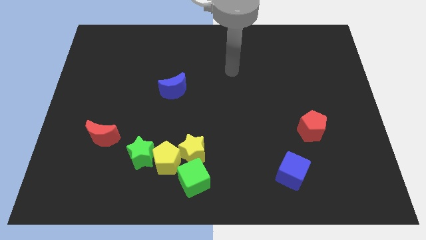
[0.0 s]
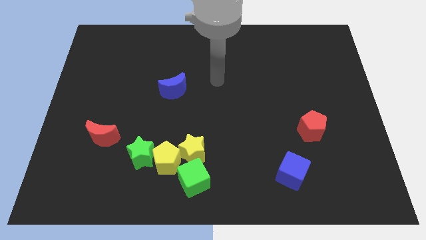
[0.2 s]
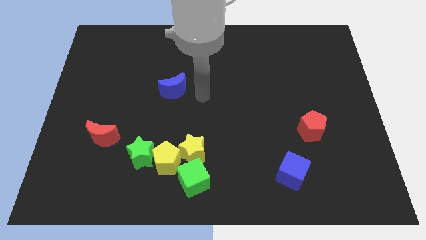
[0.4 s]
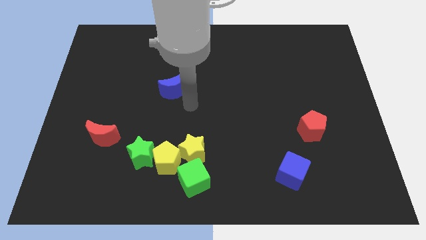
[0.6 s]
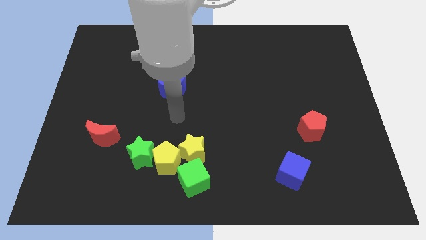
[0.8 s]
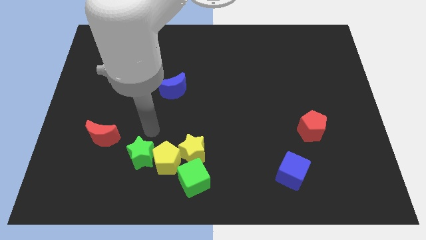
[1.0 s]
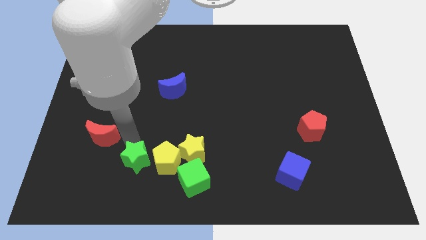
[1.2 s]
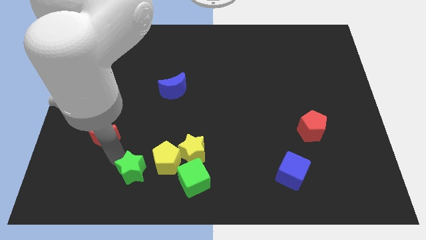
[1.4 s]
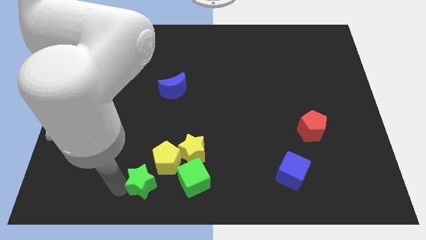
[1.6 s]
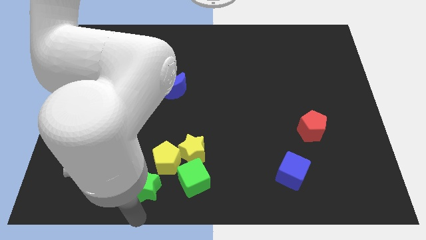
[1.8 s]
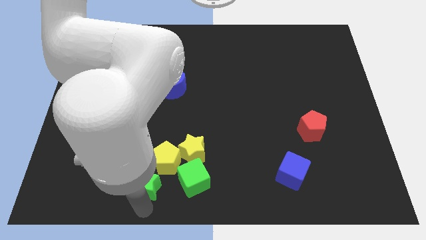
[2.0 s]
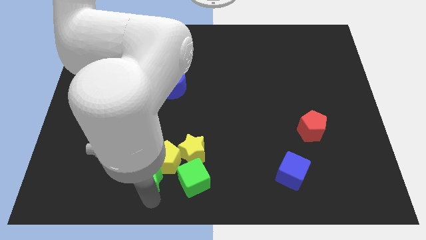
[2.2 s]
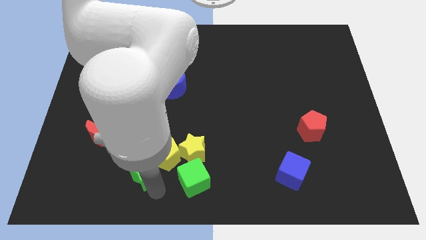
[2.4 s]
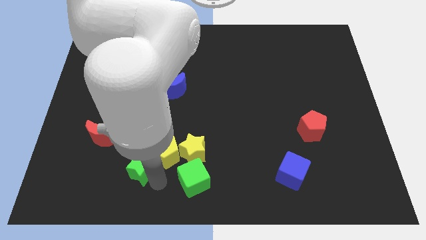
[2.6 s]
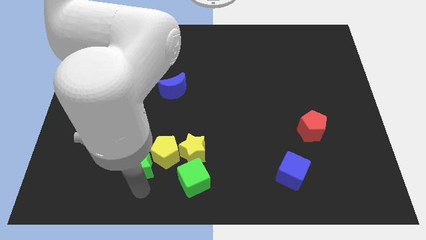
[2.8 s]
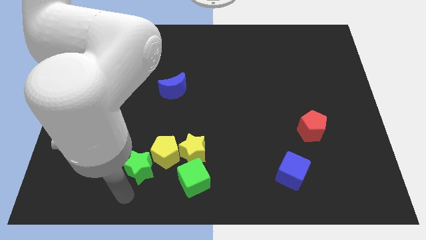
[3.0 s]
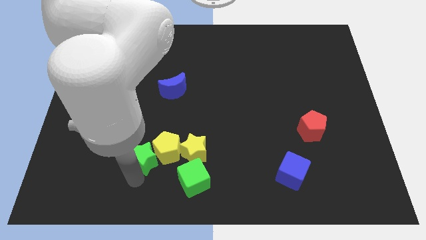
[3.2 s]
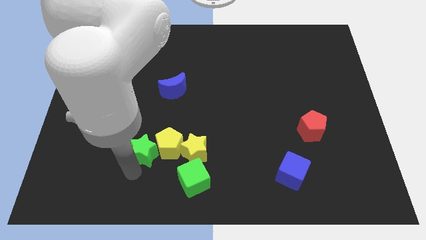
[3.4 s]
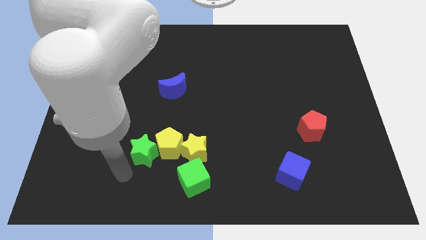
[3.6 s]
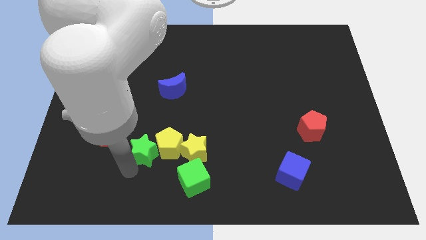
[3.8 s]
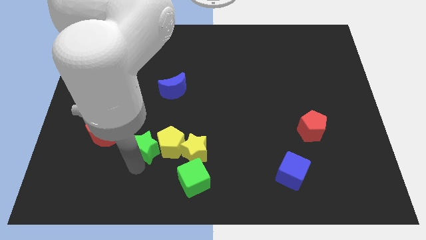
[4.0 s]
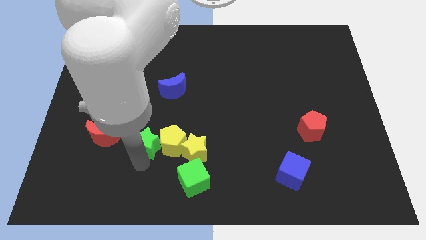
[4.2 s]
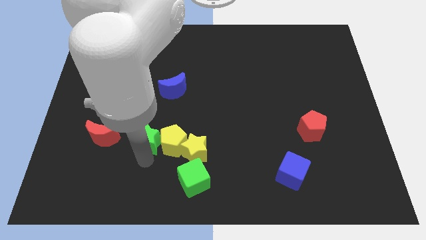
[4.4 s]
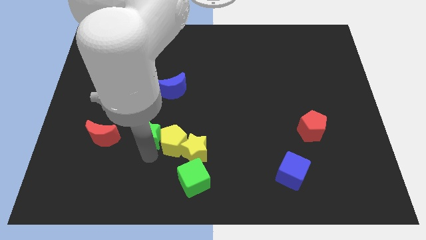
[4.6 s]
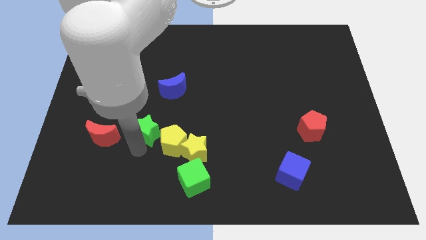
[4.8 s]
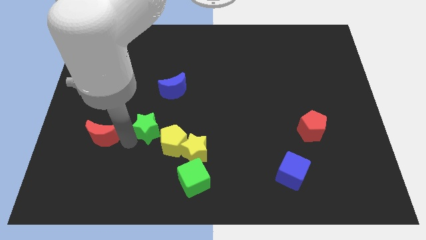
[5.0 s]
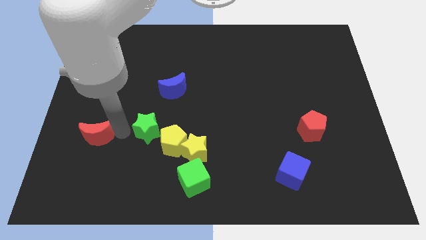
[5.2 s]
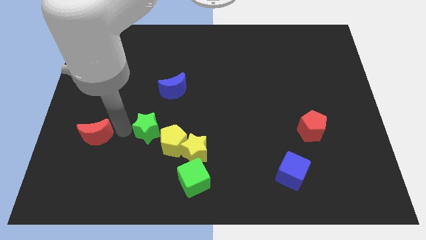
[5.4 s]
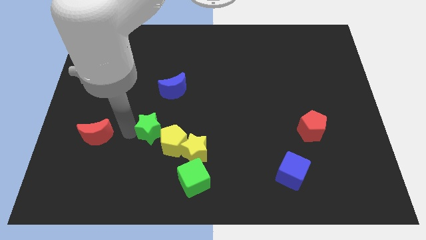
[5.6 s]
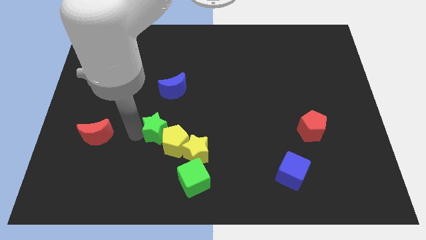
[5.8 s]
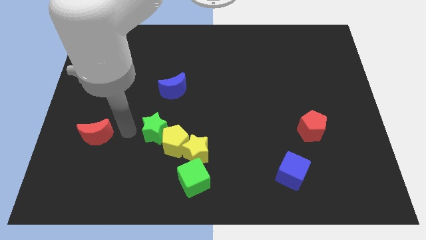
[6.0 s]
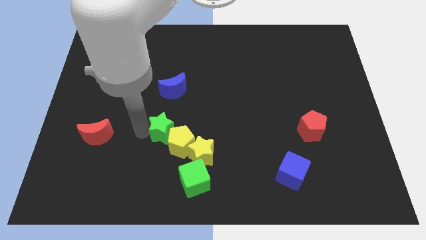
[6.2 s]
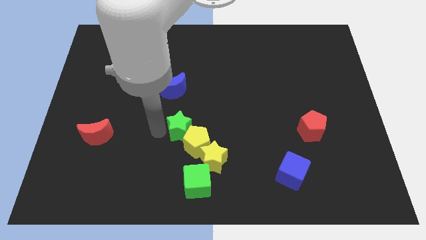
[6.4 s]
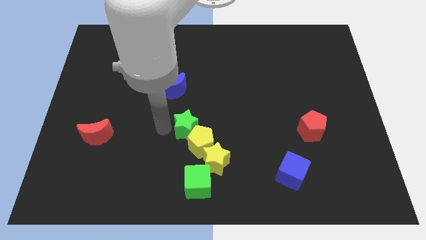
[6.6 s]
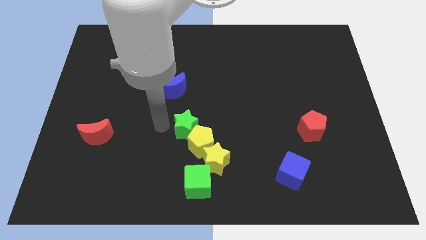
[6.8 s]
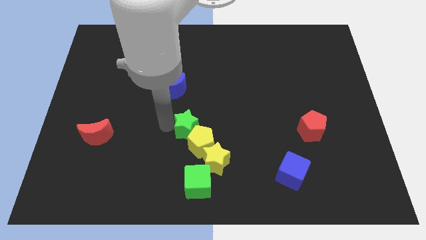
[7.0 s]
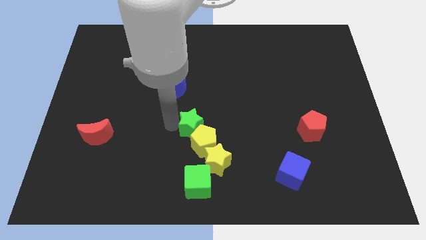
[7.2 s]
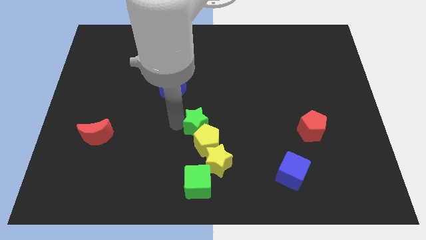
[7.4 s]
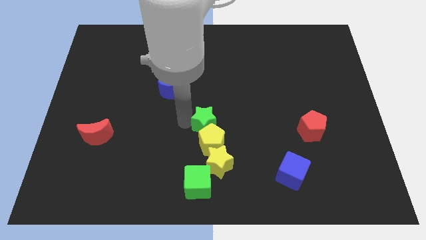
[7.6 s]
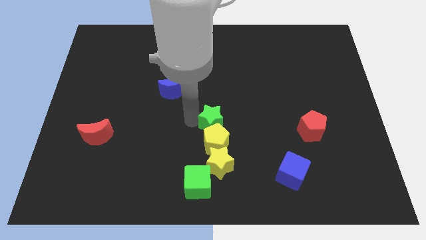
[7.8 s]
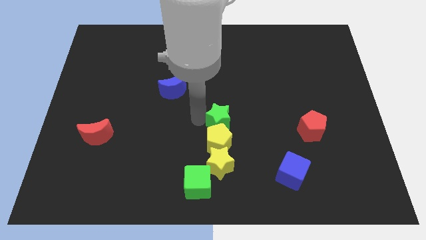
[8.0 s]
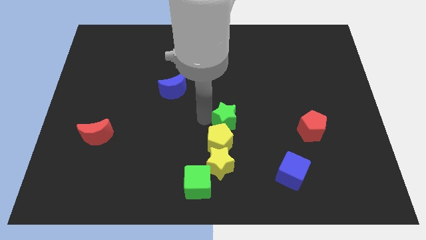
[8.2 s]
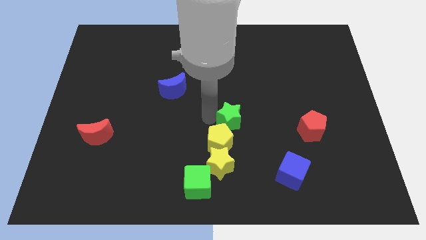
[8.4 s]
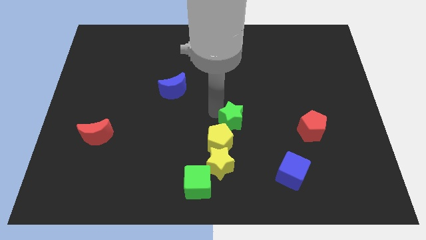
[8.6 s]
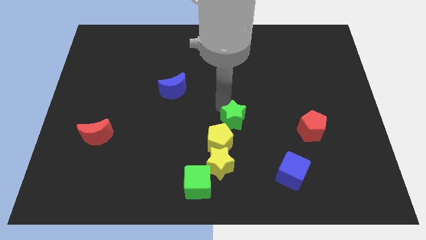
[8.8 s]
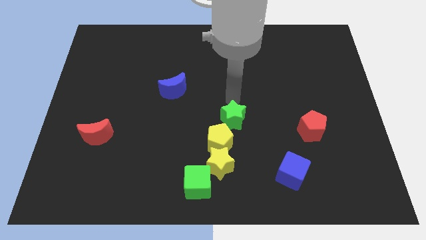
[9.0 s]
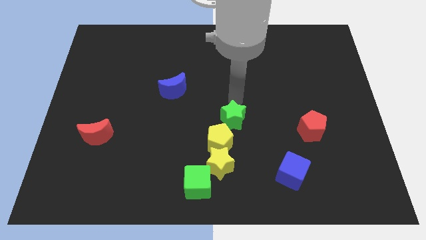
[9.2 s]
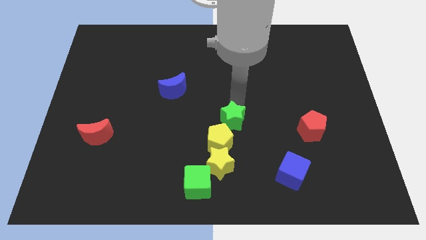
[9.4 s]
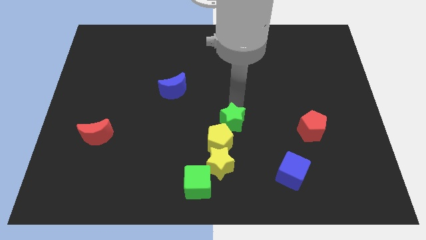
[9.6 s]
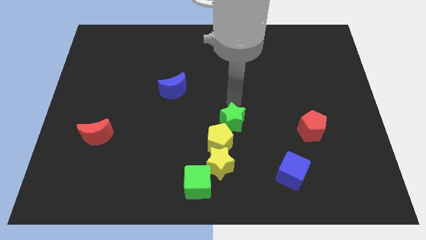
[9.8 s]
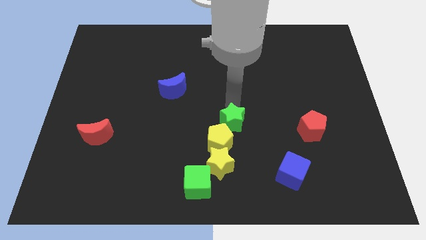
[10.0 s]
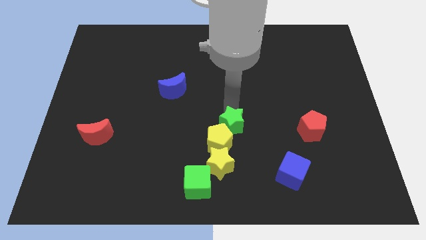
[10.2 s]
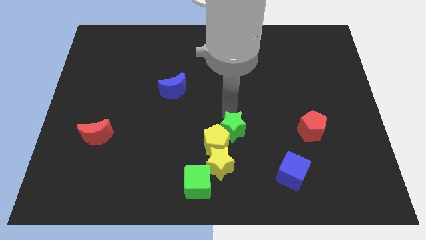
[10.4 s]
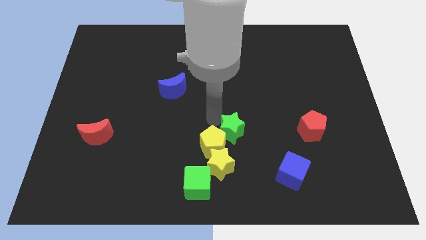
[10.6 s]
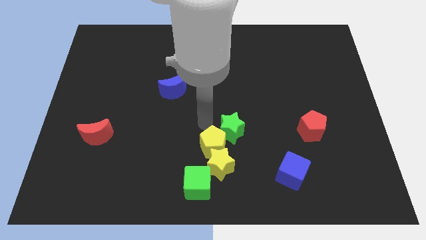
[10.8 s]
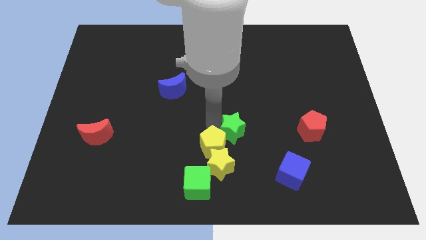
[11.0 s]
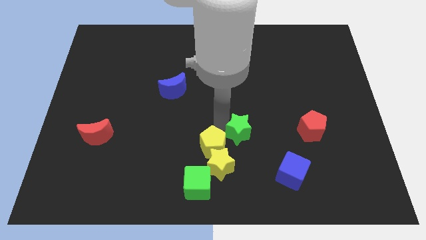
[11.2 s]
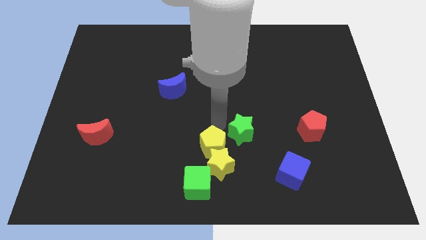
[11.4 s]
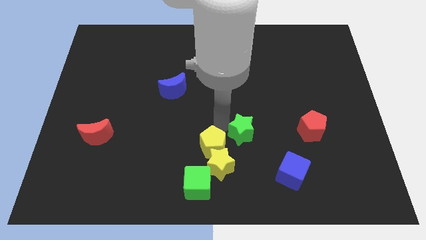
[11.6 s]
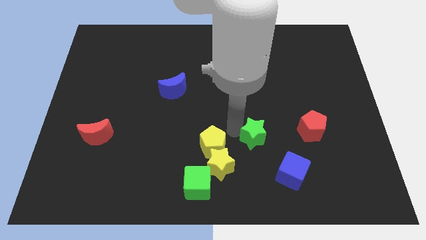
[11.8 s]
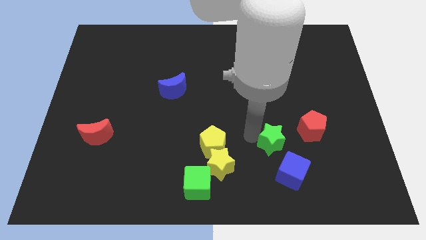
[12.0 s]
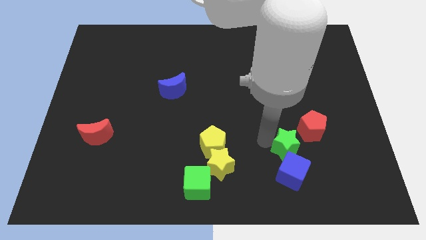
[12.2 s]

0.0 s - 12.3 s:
move the green star diagonally up and to the right of the blue cube

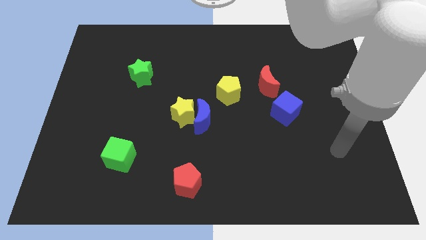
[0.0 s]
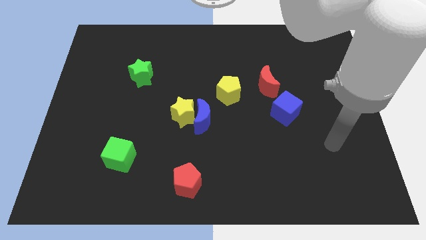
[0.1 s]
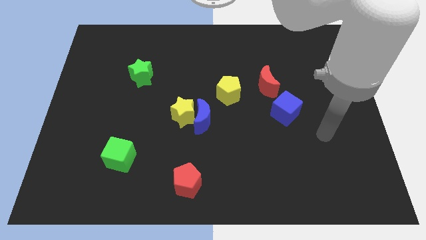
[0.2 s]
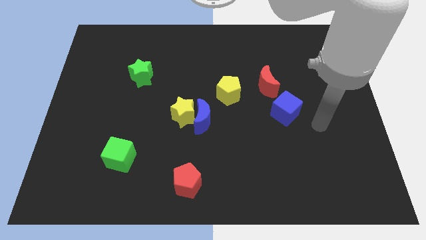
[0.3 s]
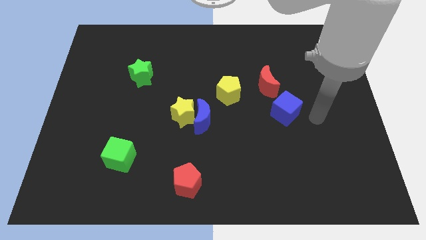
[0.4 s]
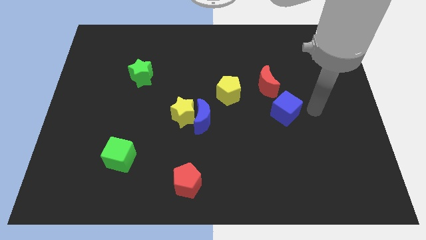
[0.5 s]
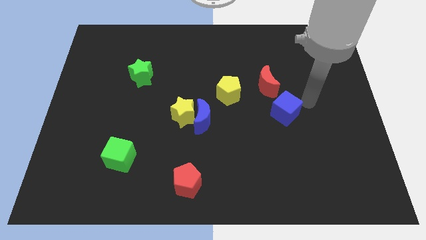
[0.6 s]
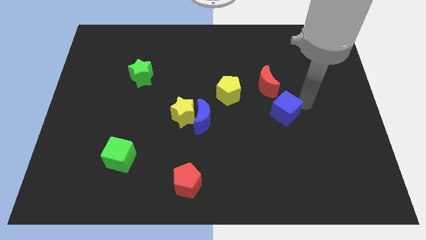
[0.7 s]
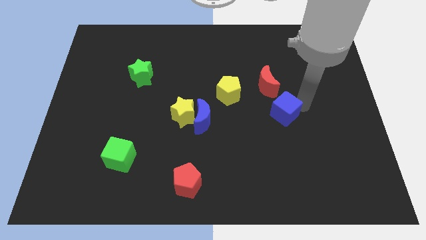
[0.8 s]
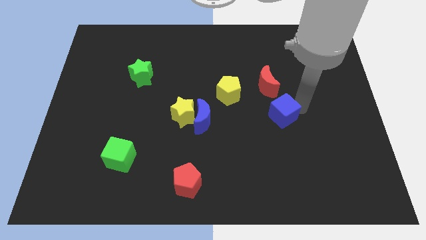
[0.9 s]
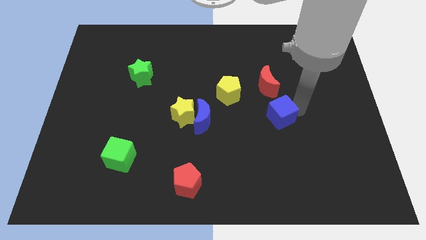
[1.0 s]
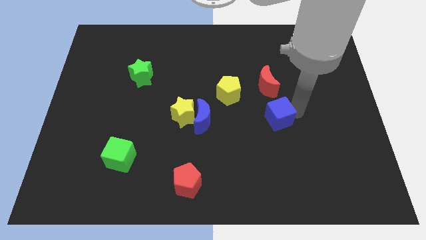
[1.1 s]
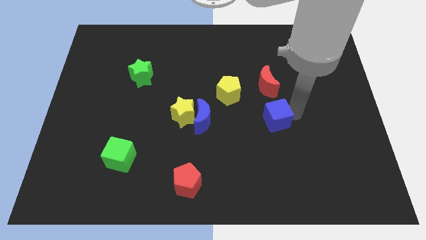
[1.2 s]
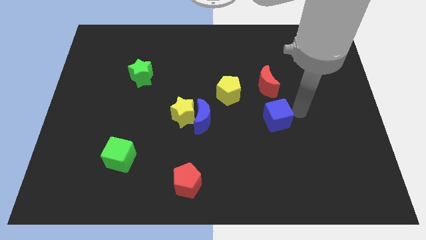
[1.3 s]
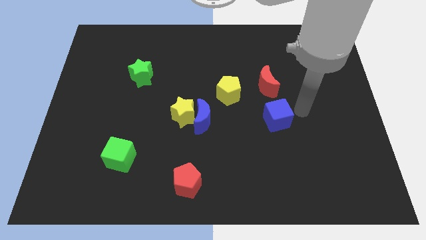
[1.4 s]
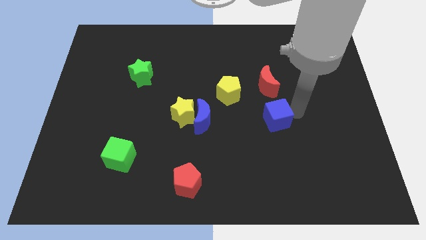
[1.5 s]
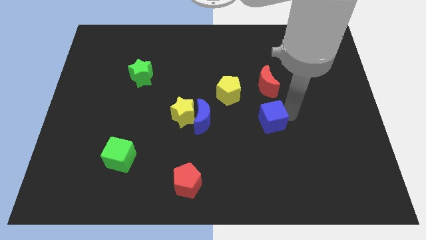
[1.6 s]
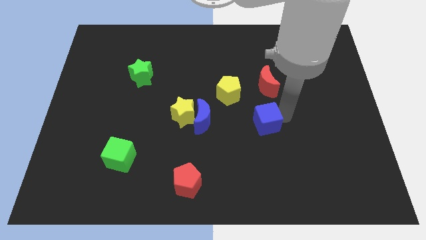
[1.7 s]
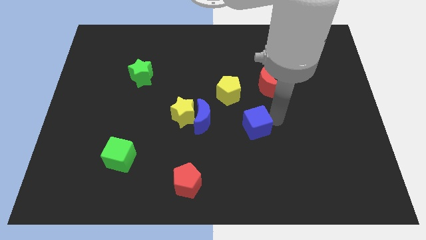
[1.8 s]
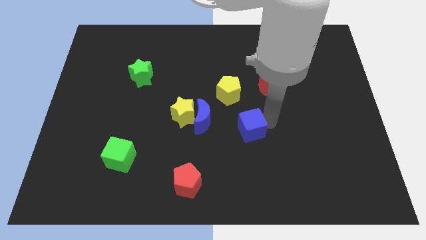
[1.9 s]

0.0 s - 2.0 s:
push the blue cube to the bottom of the yellow pentagon
